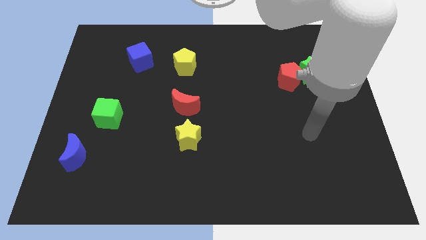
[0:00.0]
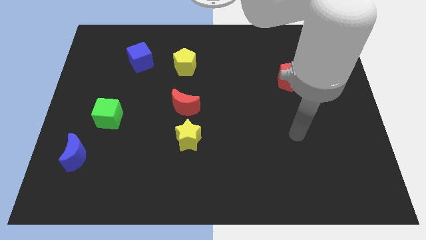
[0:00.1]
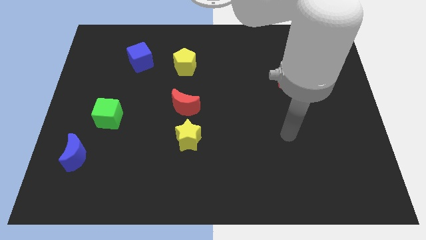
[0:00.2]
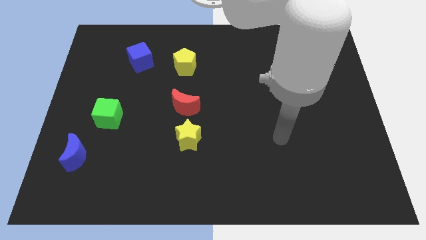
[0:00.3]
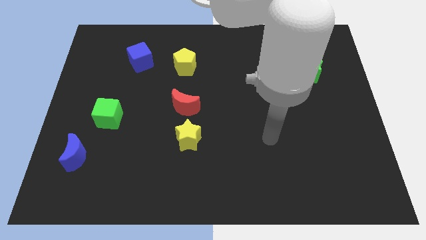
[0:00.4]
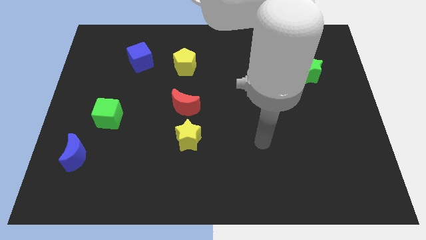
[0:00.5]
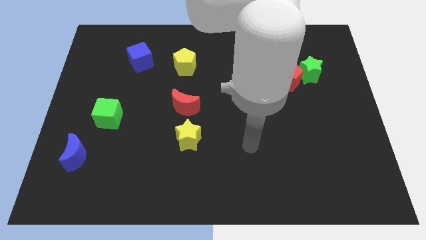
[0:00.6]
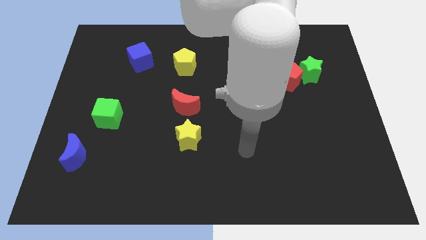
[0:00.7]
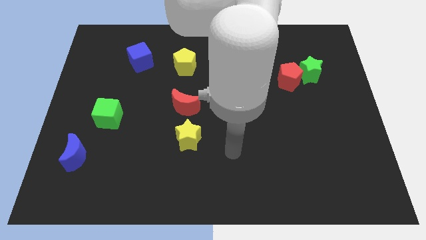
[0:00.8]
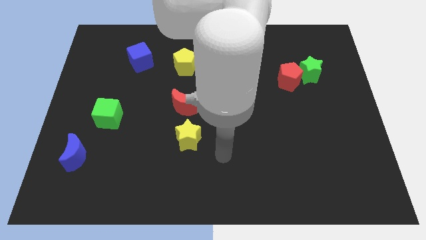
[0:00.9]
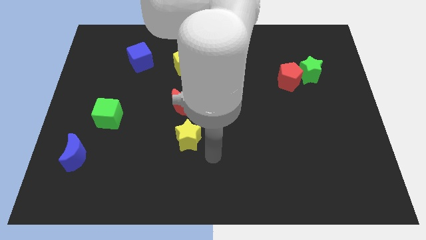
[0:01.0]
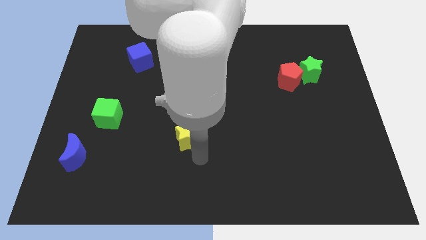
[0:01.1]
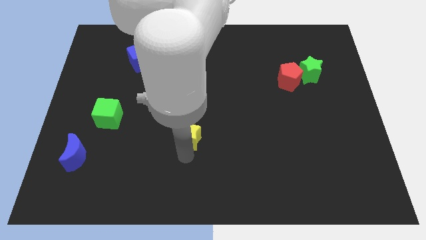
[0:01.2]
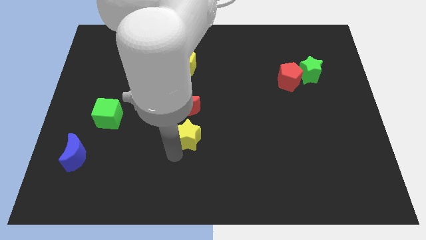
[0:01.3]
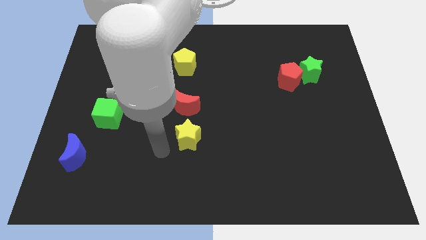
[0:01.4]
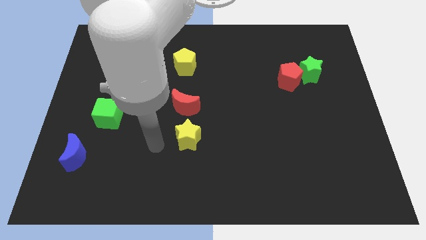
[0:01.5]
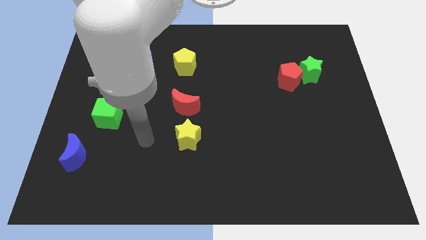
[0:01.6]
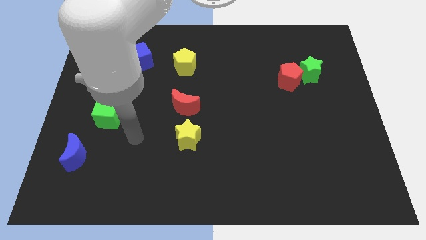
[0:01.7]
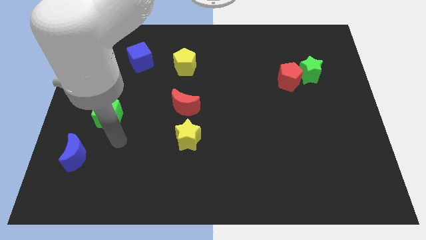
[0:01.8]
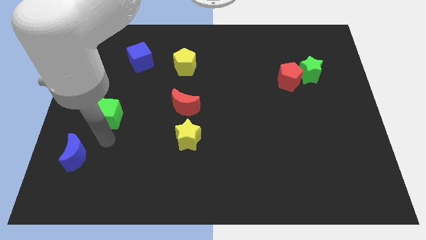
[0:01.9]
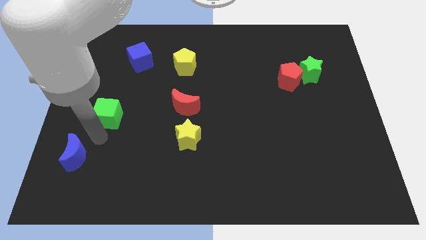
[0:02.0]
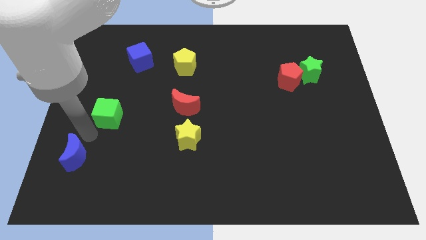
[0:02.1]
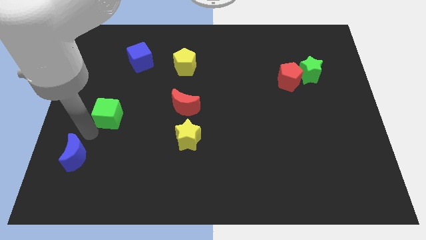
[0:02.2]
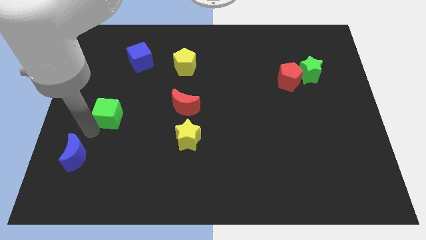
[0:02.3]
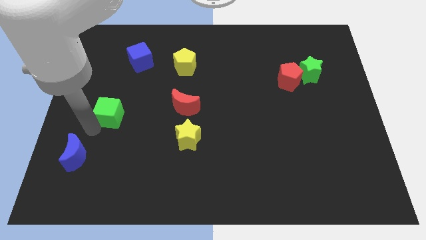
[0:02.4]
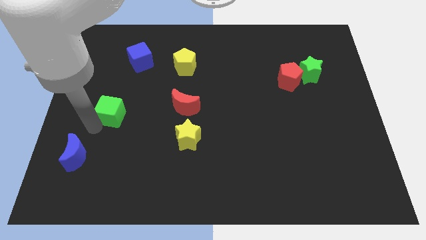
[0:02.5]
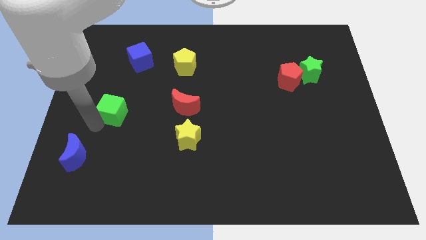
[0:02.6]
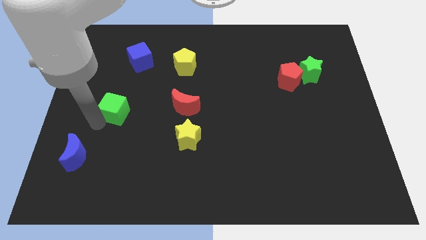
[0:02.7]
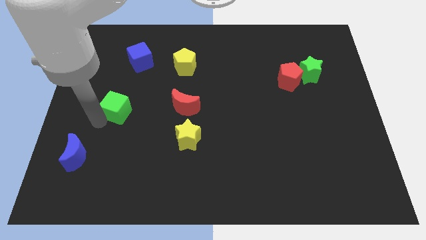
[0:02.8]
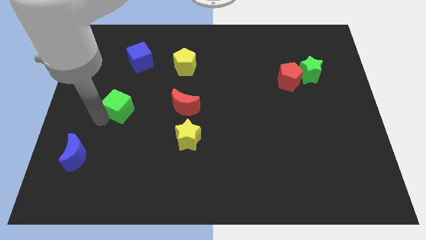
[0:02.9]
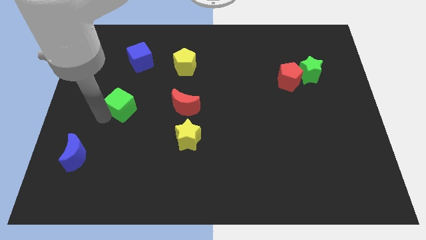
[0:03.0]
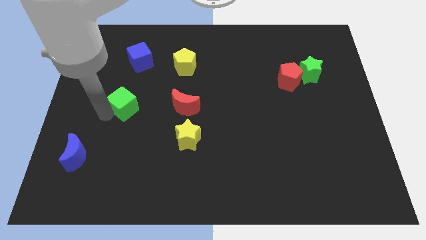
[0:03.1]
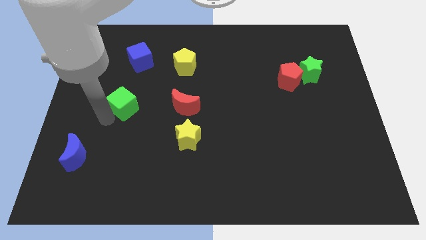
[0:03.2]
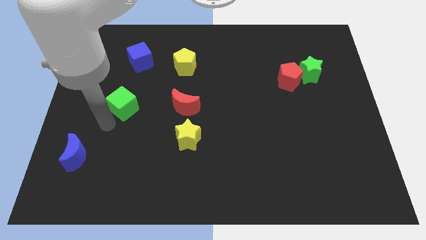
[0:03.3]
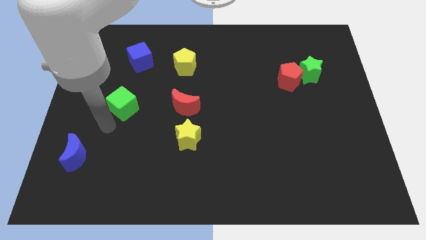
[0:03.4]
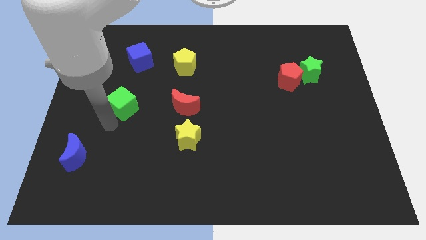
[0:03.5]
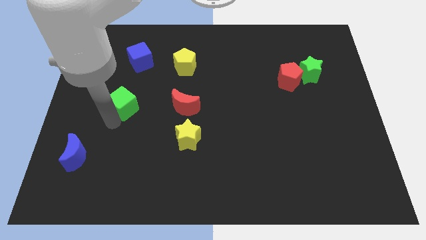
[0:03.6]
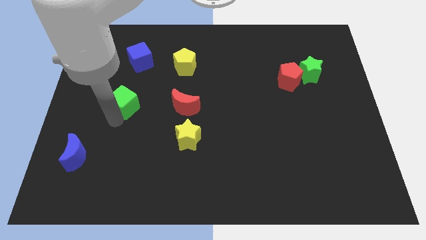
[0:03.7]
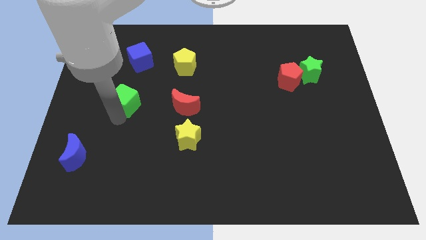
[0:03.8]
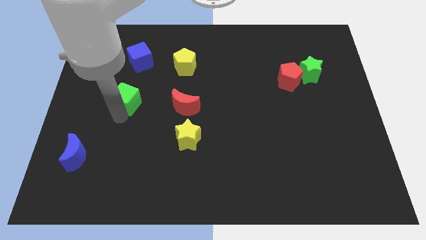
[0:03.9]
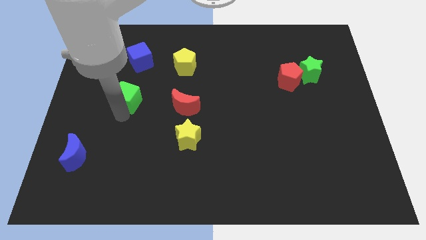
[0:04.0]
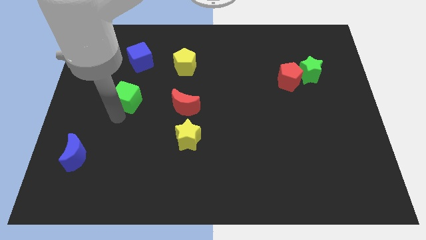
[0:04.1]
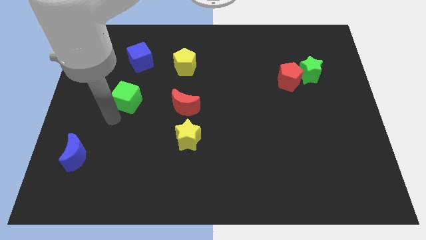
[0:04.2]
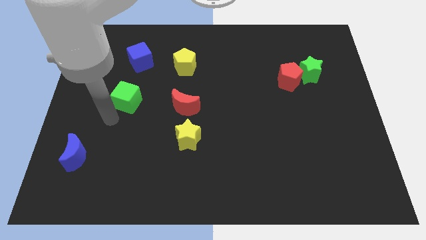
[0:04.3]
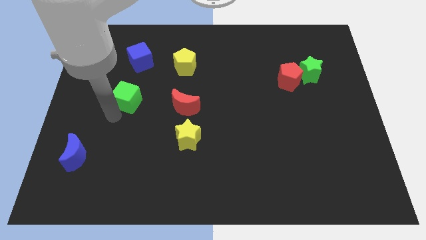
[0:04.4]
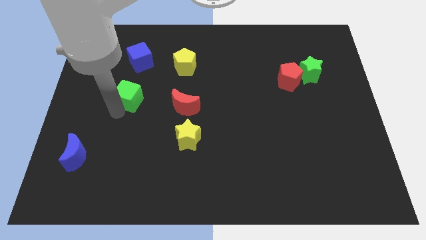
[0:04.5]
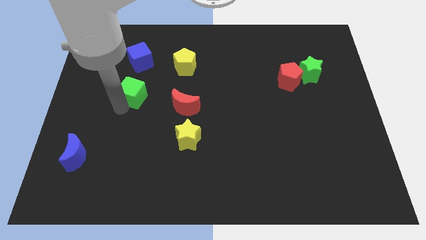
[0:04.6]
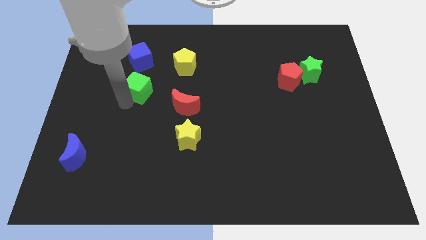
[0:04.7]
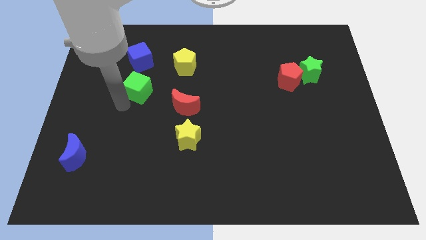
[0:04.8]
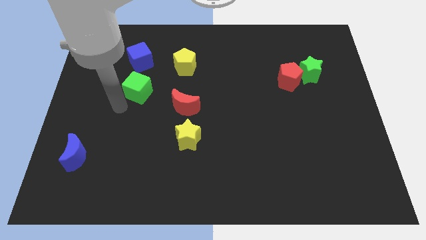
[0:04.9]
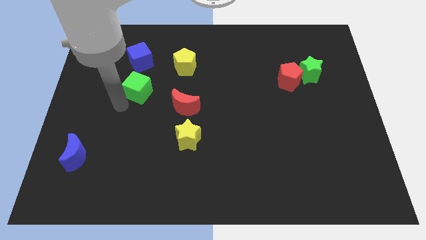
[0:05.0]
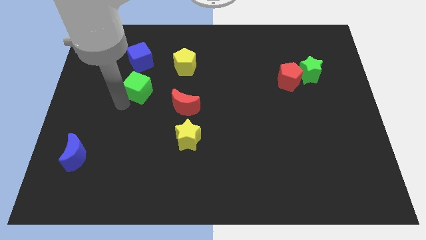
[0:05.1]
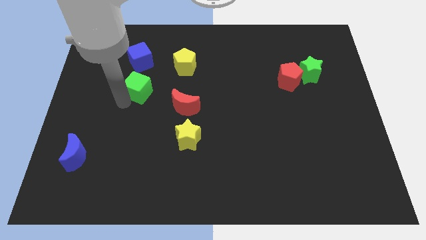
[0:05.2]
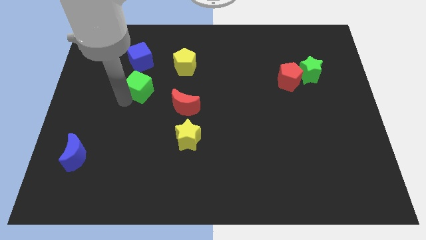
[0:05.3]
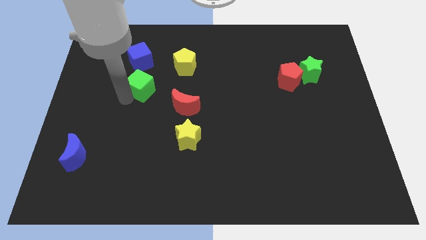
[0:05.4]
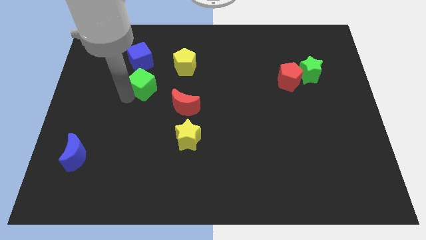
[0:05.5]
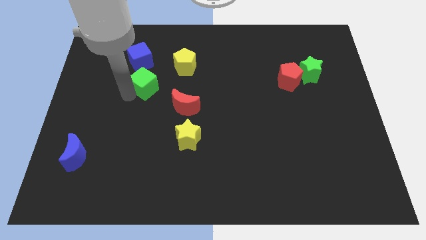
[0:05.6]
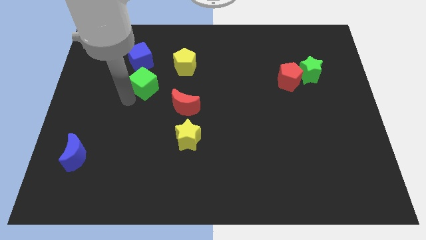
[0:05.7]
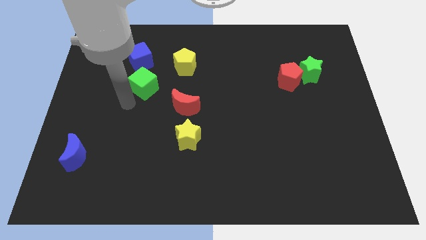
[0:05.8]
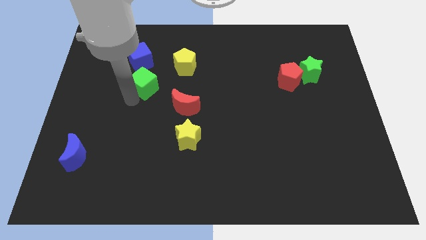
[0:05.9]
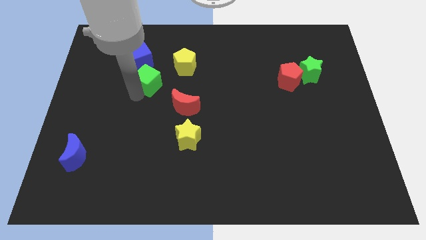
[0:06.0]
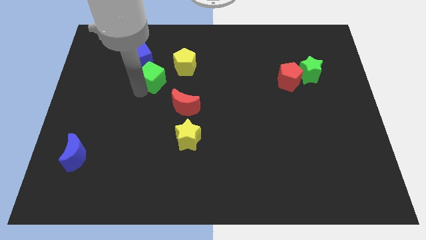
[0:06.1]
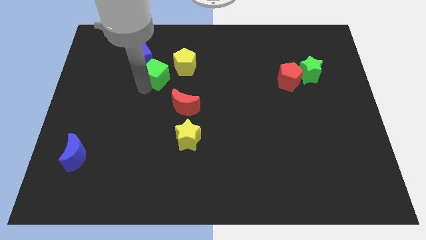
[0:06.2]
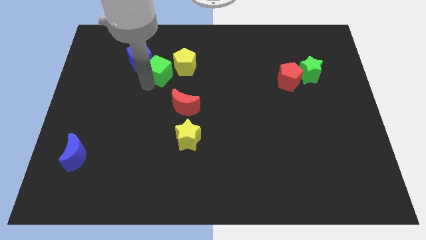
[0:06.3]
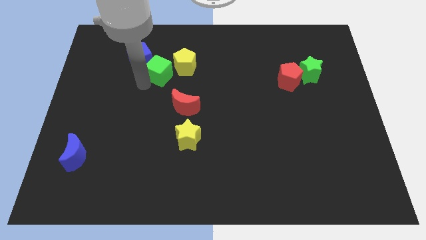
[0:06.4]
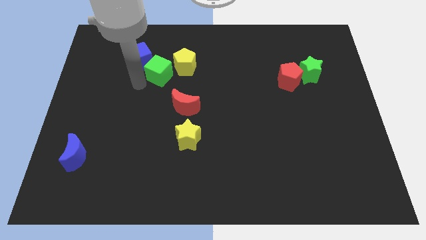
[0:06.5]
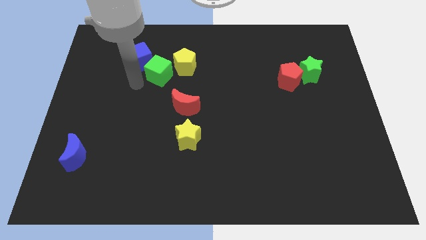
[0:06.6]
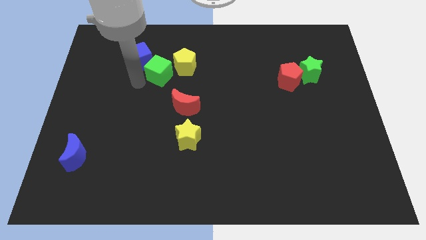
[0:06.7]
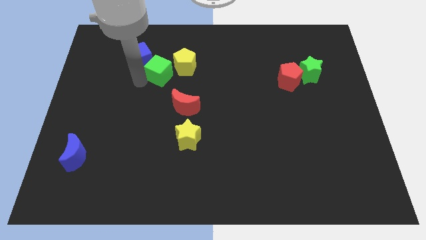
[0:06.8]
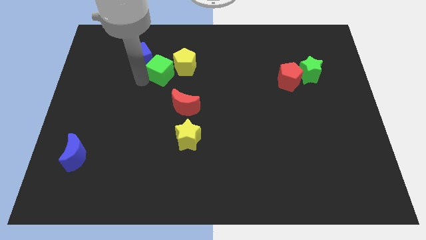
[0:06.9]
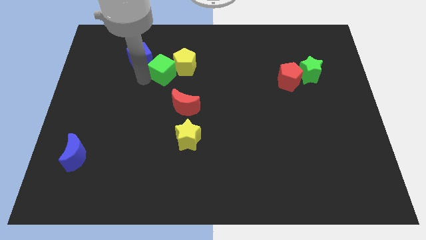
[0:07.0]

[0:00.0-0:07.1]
slide the green cube next to the yellow pentagon

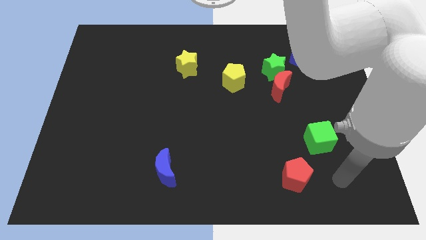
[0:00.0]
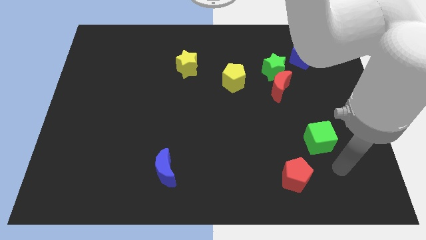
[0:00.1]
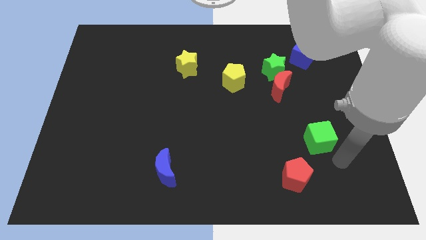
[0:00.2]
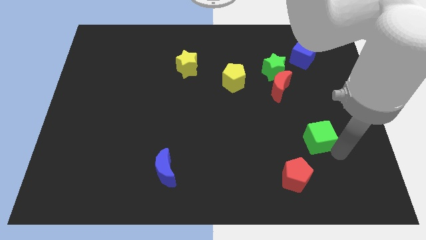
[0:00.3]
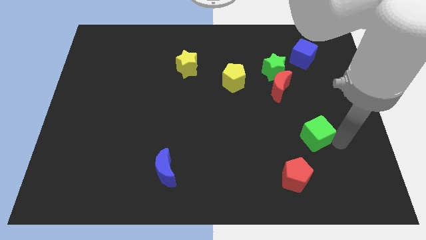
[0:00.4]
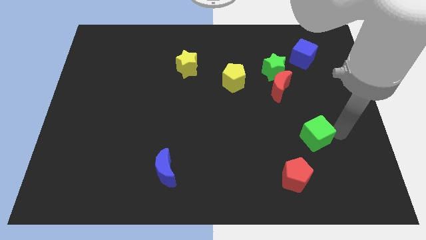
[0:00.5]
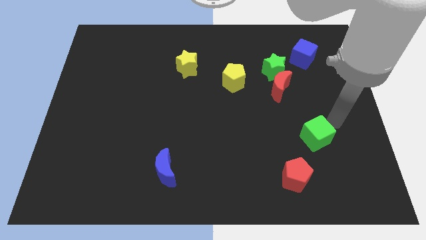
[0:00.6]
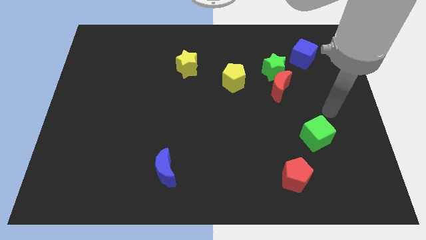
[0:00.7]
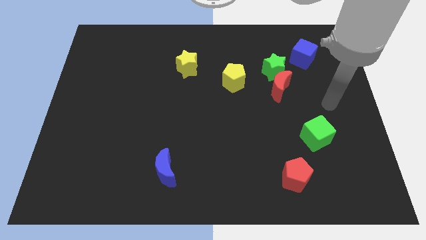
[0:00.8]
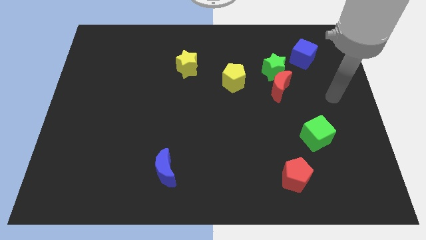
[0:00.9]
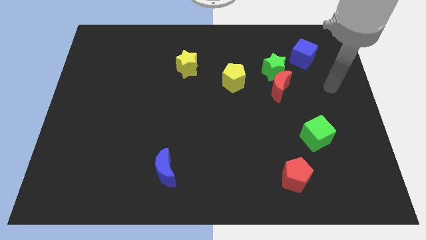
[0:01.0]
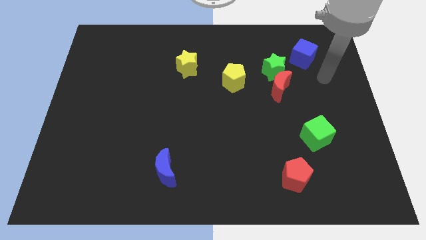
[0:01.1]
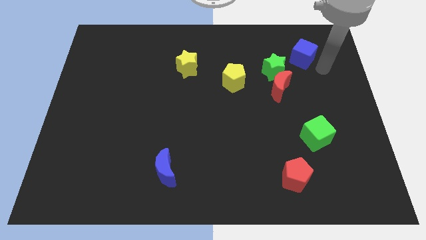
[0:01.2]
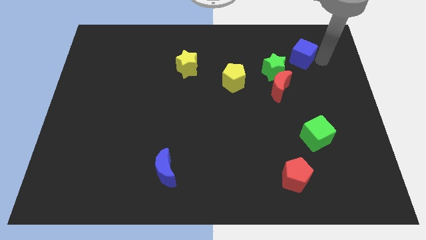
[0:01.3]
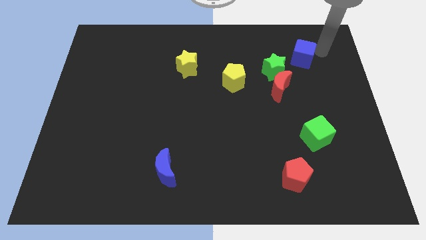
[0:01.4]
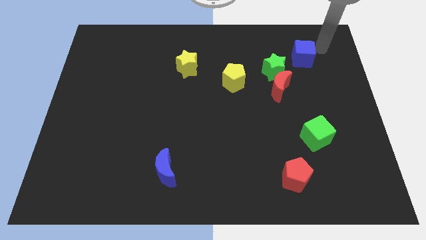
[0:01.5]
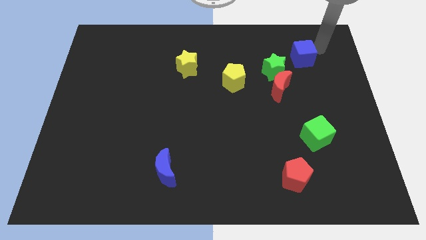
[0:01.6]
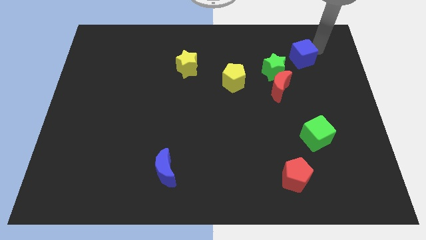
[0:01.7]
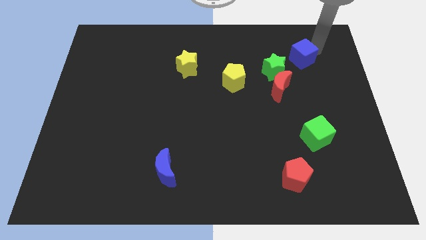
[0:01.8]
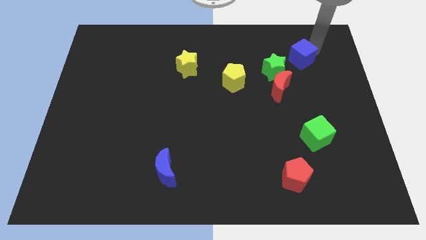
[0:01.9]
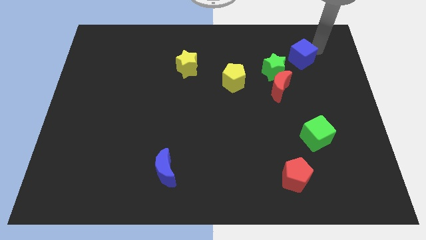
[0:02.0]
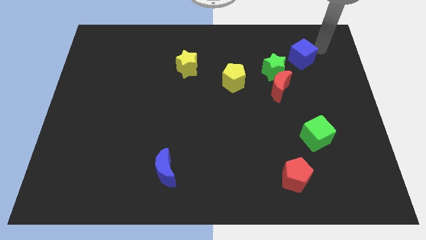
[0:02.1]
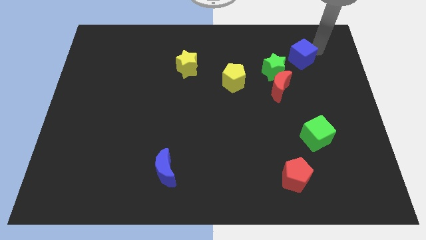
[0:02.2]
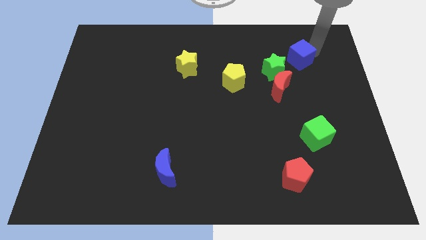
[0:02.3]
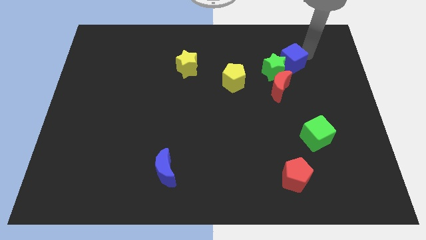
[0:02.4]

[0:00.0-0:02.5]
slide the blue cube close to the green star
